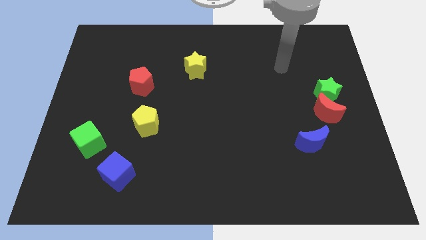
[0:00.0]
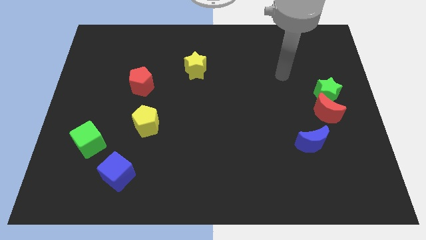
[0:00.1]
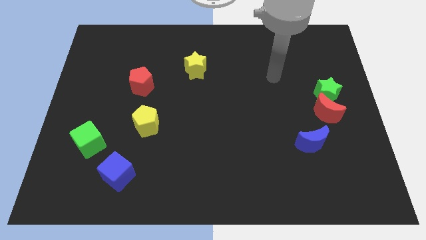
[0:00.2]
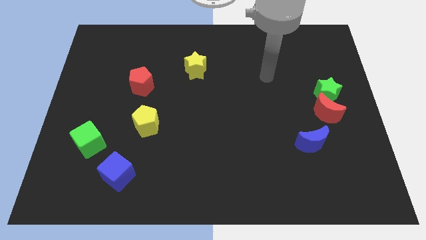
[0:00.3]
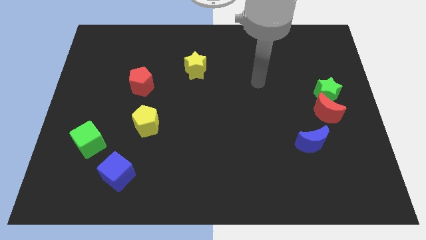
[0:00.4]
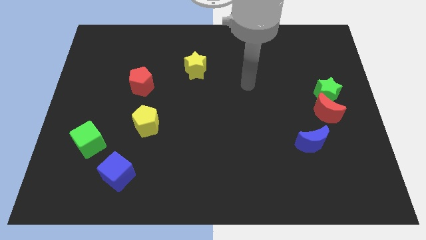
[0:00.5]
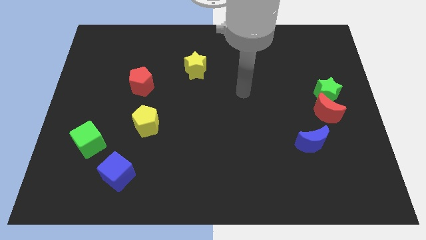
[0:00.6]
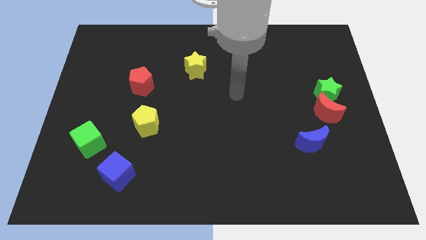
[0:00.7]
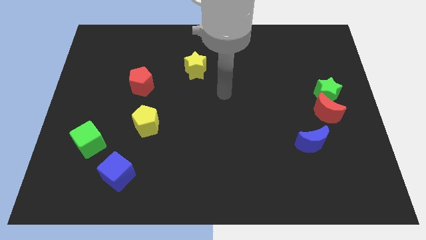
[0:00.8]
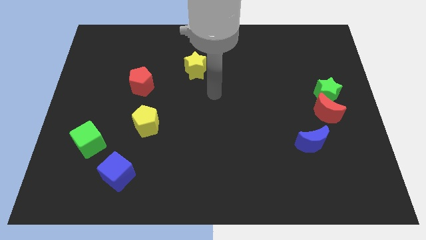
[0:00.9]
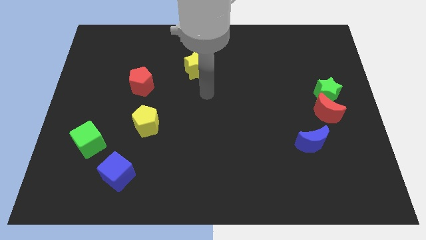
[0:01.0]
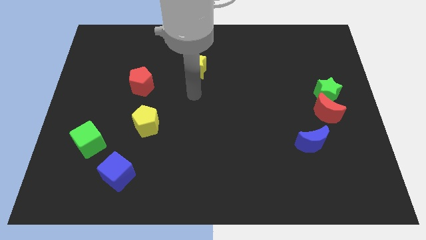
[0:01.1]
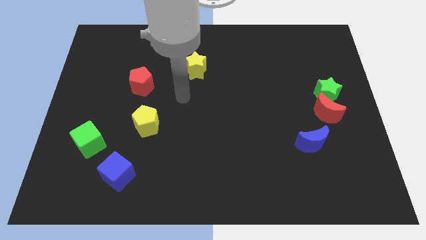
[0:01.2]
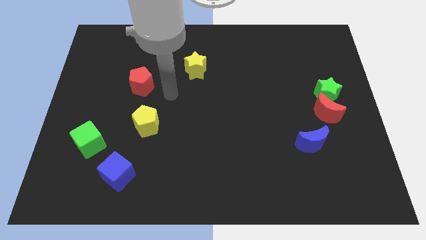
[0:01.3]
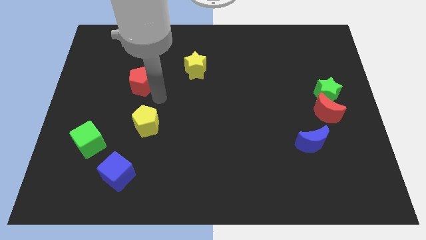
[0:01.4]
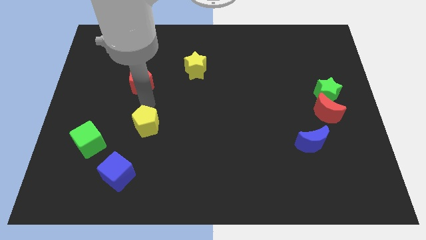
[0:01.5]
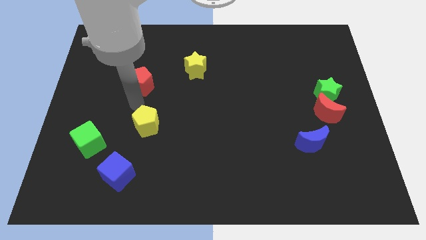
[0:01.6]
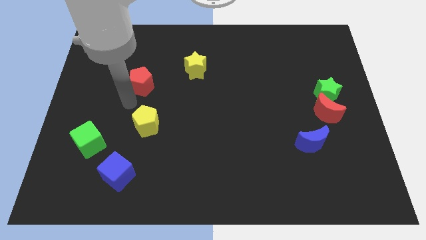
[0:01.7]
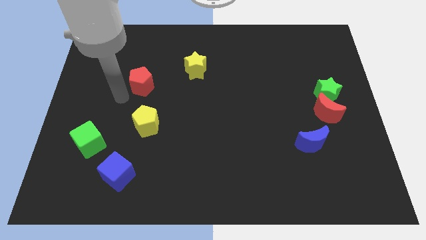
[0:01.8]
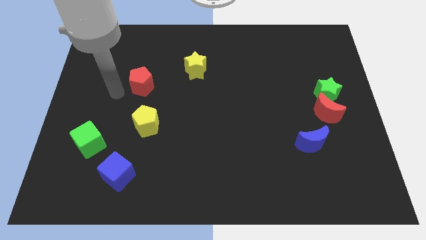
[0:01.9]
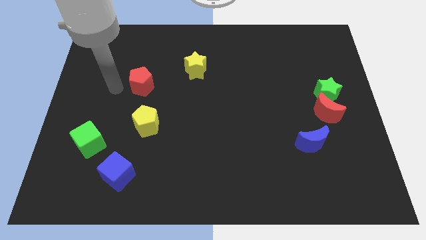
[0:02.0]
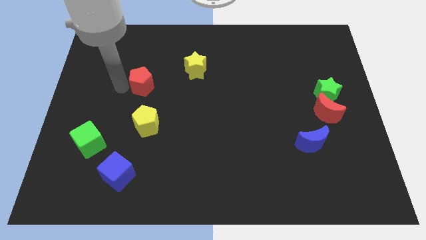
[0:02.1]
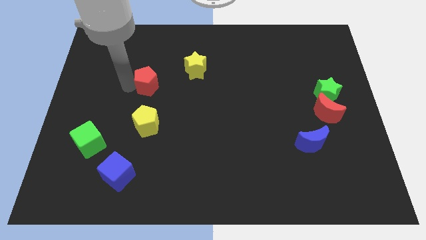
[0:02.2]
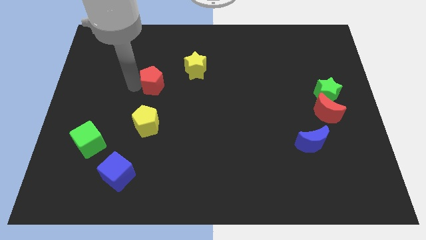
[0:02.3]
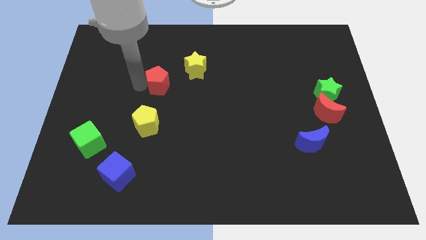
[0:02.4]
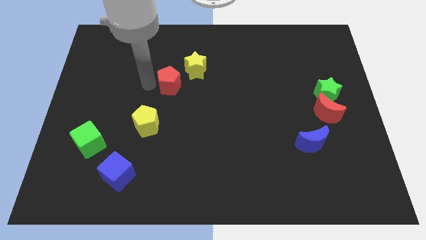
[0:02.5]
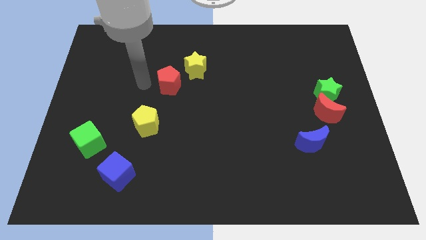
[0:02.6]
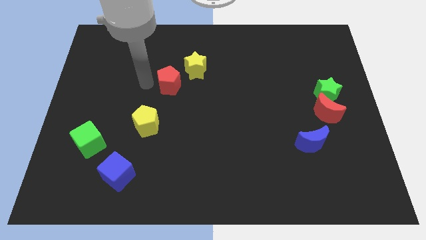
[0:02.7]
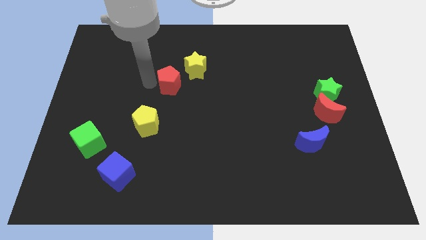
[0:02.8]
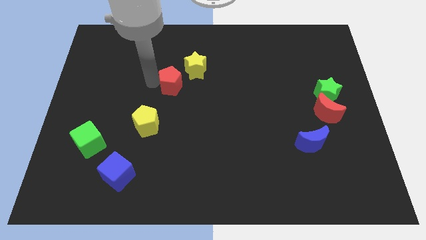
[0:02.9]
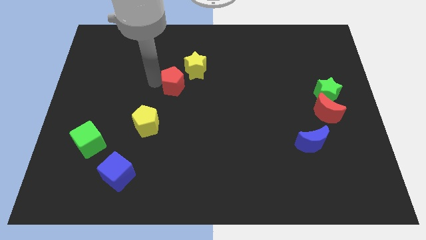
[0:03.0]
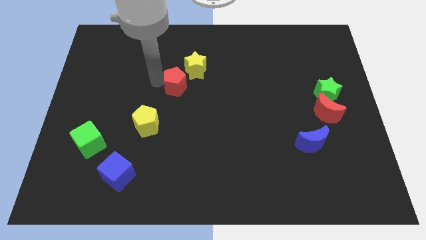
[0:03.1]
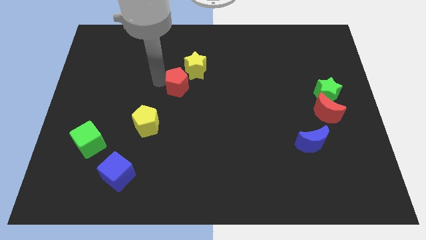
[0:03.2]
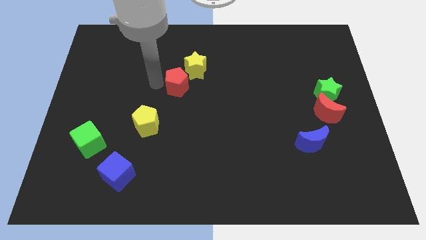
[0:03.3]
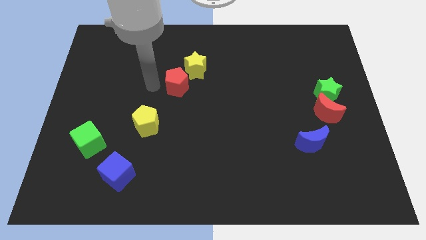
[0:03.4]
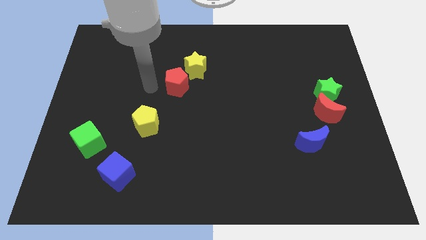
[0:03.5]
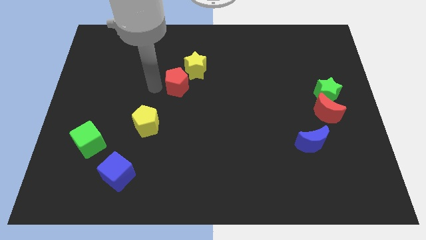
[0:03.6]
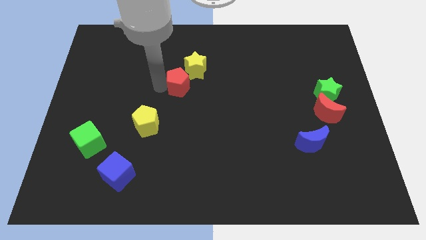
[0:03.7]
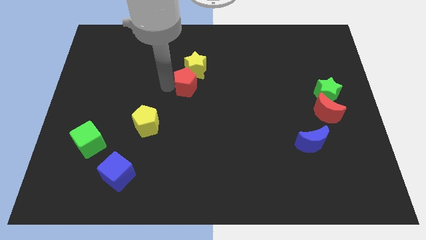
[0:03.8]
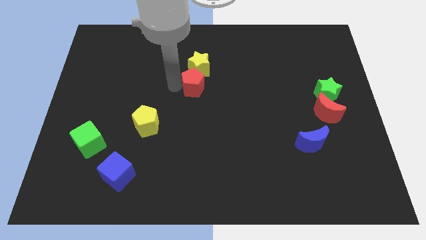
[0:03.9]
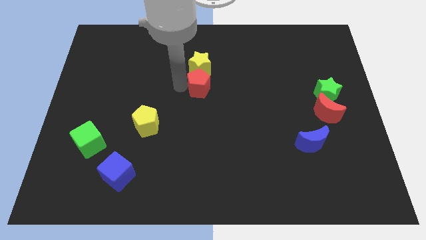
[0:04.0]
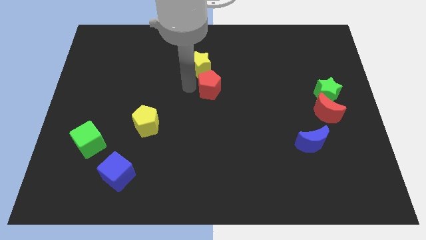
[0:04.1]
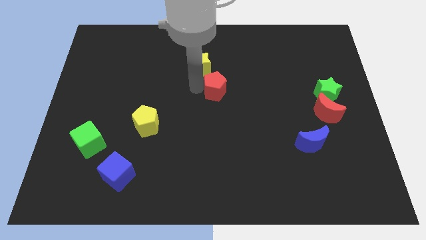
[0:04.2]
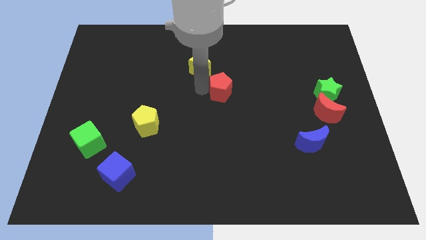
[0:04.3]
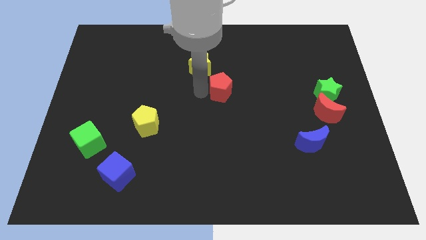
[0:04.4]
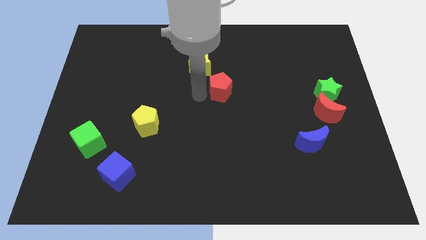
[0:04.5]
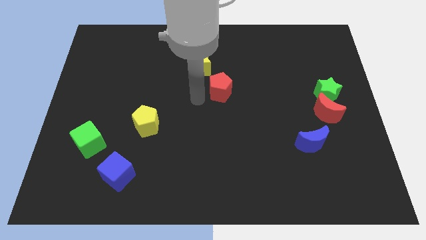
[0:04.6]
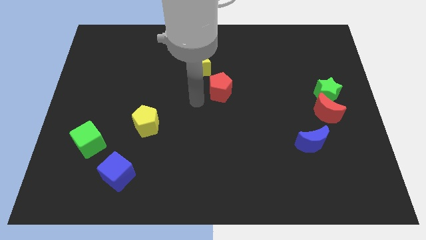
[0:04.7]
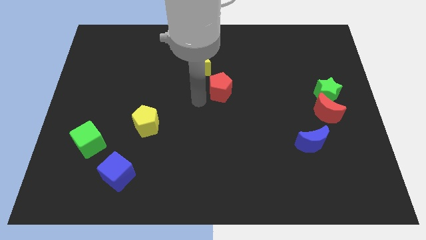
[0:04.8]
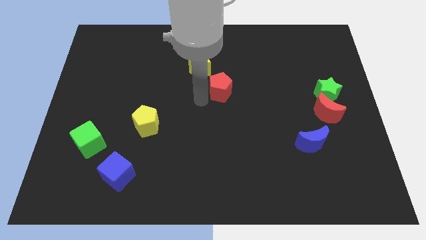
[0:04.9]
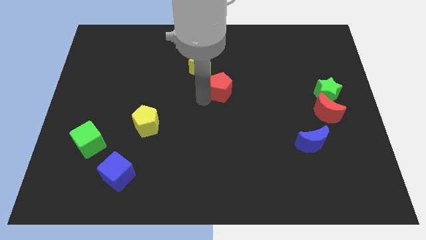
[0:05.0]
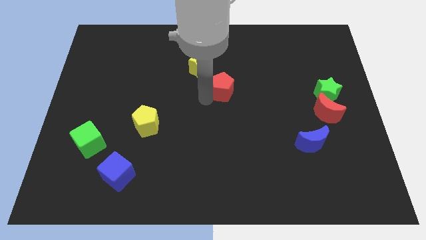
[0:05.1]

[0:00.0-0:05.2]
push the red pentagon to the right

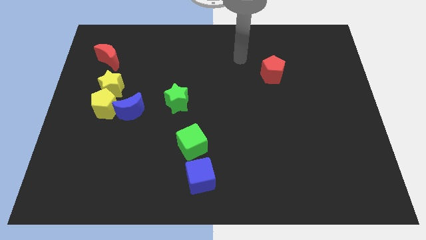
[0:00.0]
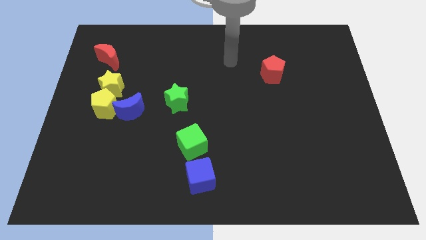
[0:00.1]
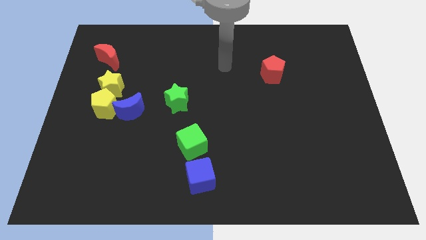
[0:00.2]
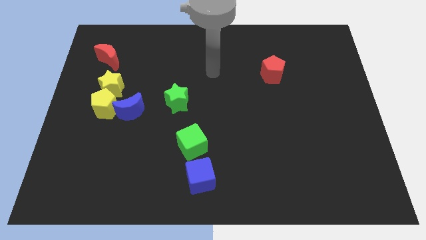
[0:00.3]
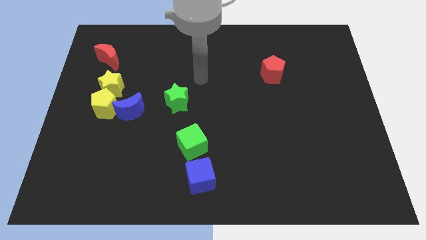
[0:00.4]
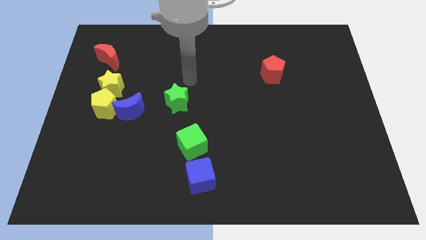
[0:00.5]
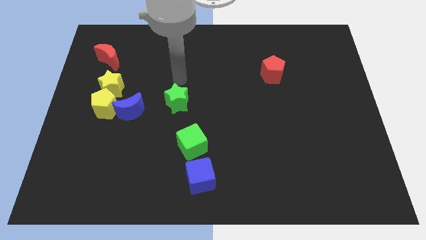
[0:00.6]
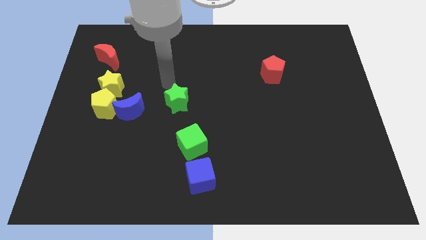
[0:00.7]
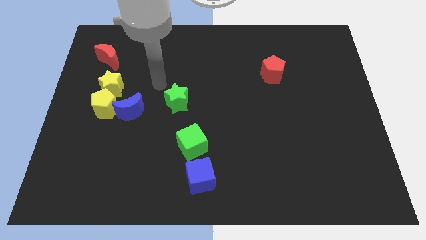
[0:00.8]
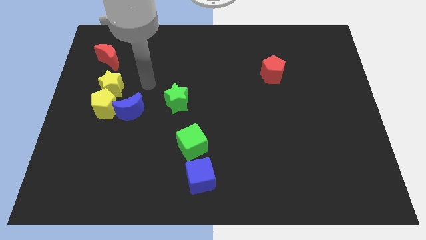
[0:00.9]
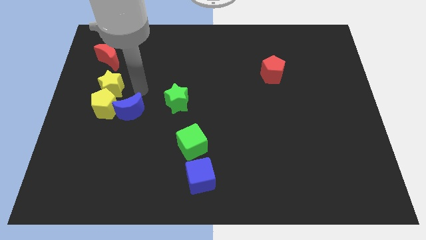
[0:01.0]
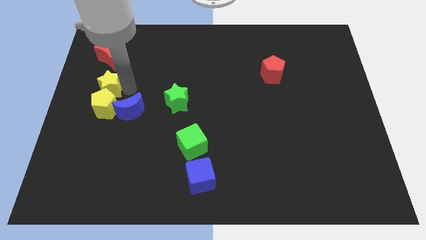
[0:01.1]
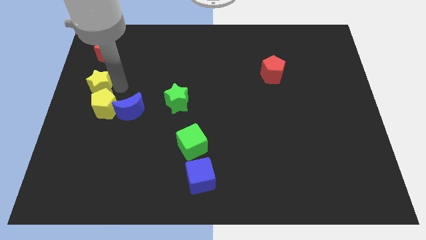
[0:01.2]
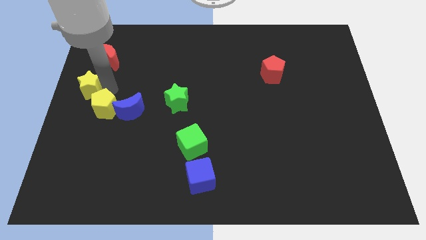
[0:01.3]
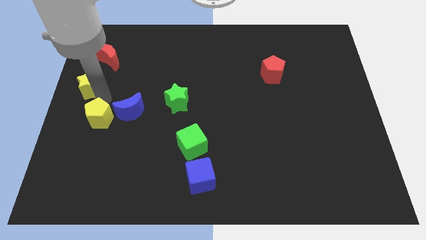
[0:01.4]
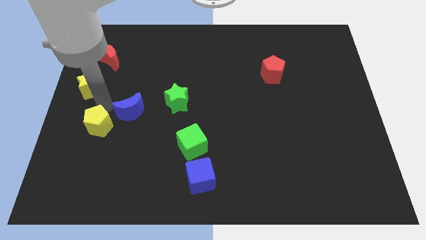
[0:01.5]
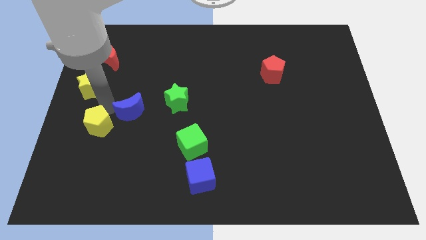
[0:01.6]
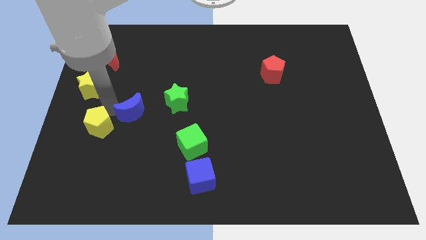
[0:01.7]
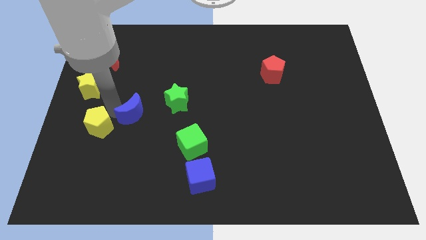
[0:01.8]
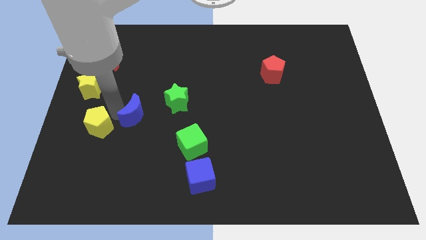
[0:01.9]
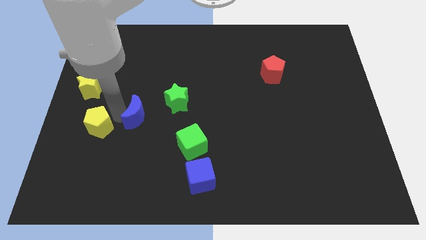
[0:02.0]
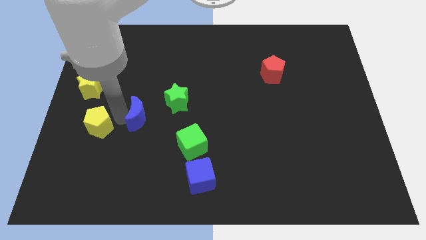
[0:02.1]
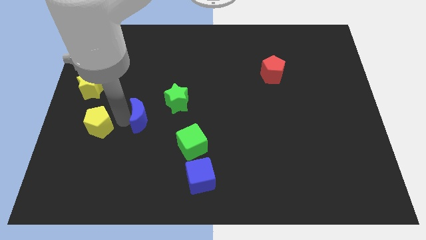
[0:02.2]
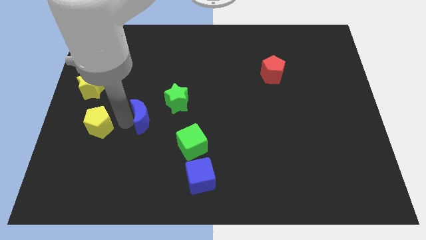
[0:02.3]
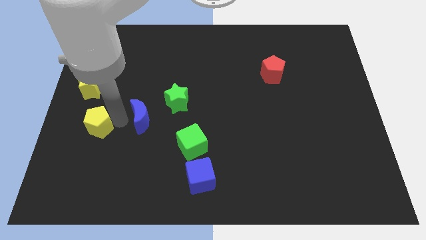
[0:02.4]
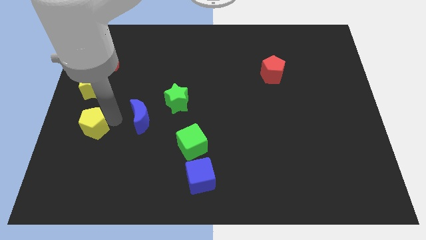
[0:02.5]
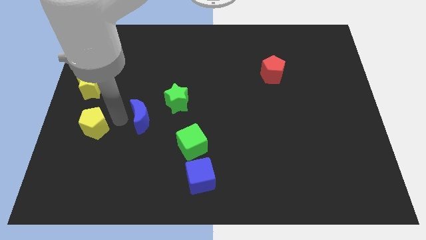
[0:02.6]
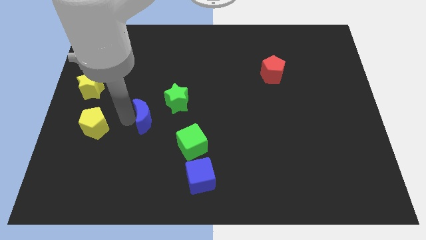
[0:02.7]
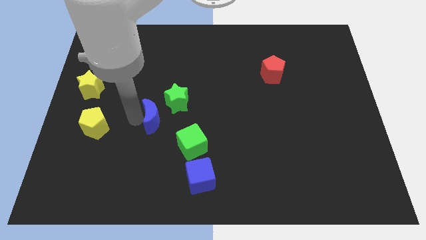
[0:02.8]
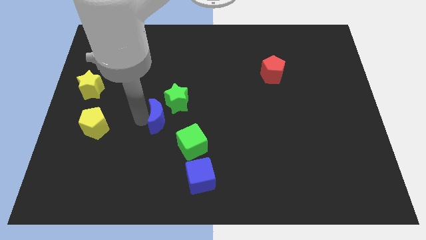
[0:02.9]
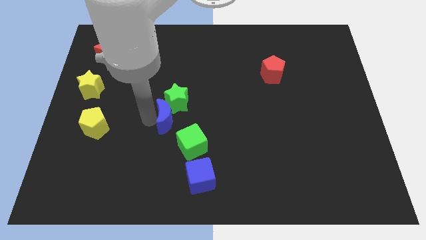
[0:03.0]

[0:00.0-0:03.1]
push the blue moon right somewhat
